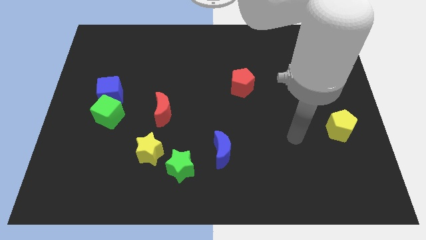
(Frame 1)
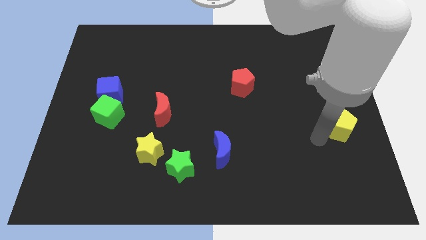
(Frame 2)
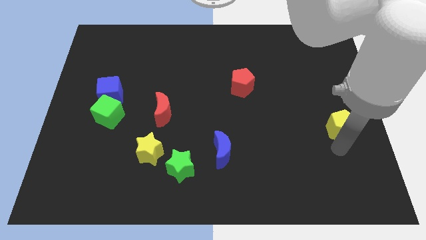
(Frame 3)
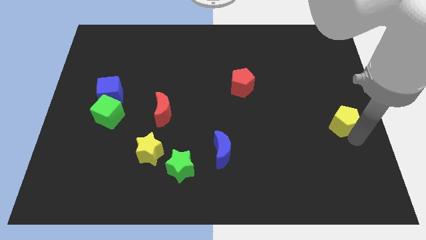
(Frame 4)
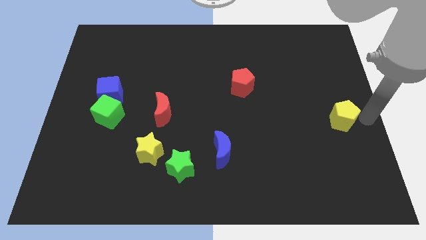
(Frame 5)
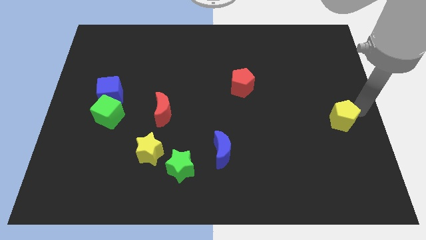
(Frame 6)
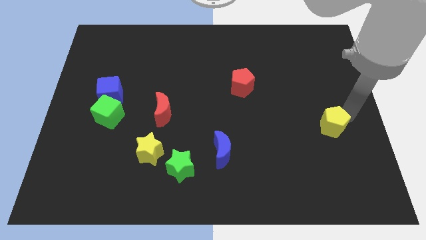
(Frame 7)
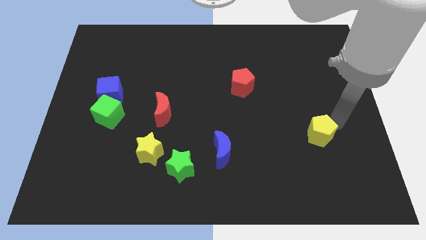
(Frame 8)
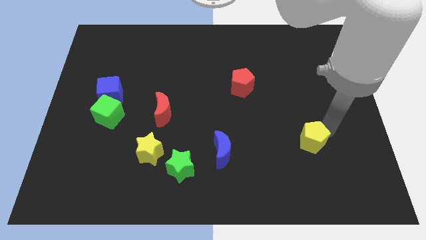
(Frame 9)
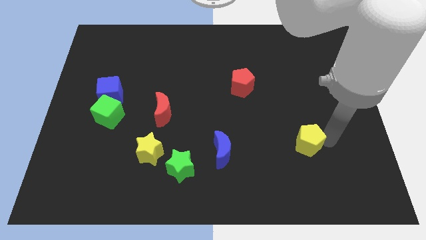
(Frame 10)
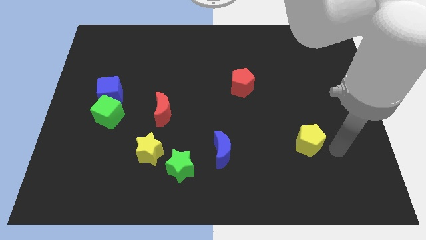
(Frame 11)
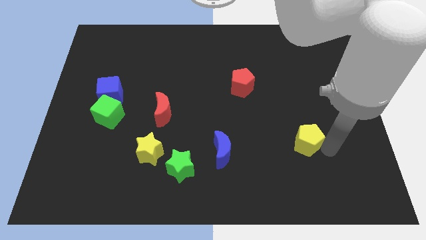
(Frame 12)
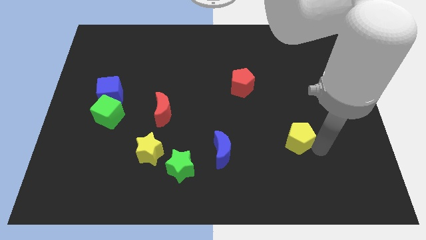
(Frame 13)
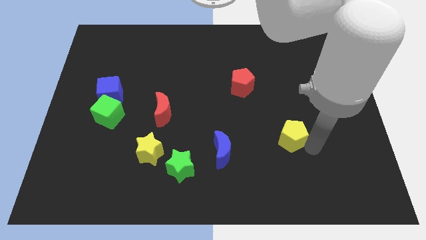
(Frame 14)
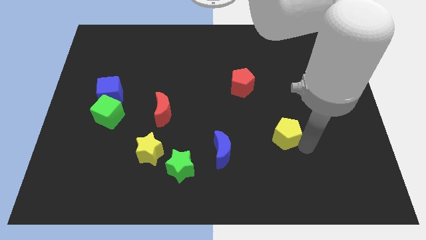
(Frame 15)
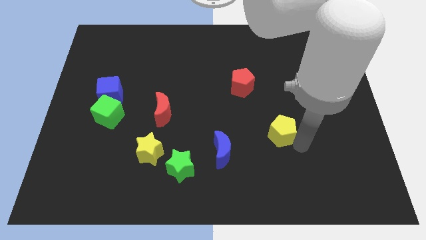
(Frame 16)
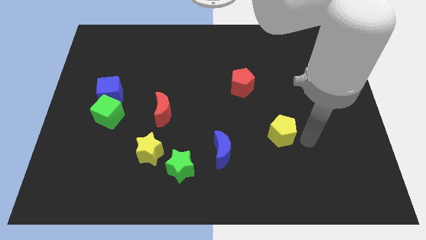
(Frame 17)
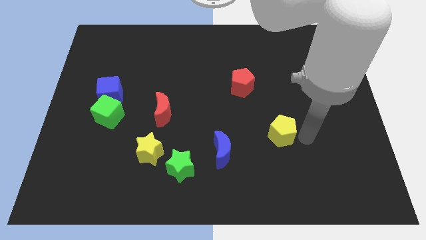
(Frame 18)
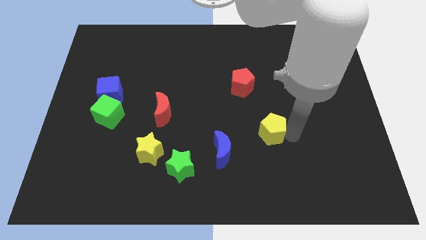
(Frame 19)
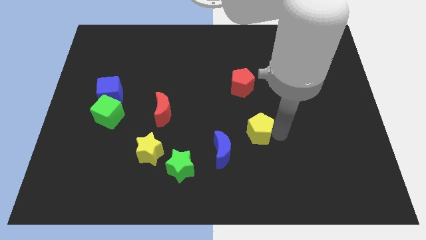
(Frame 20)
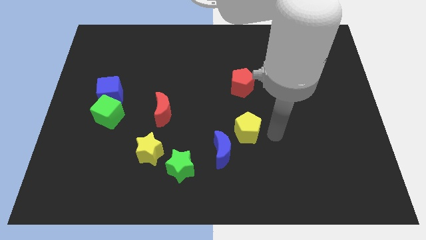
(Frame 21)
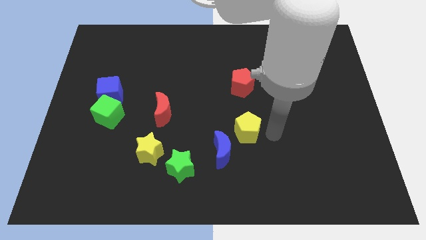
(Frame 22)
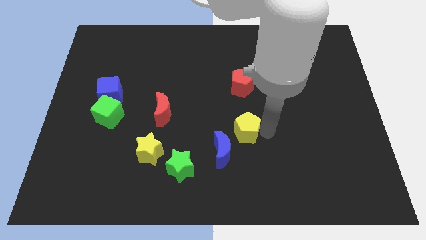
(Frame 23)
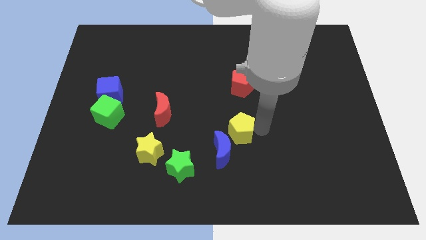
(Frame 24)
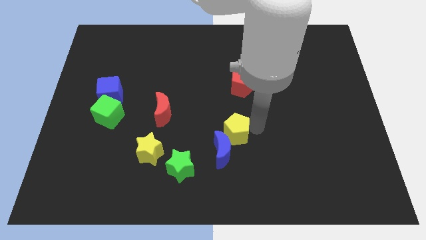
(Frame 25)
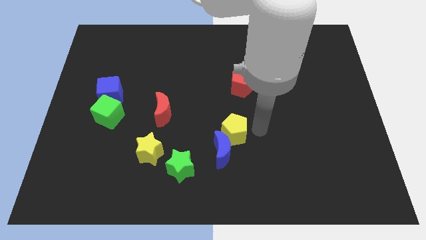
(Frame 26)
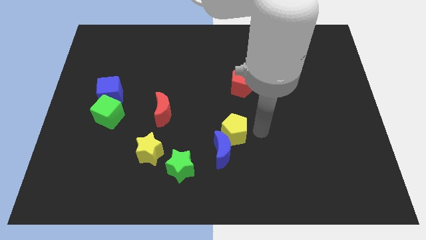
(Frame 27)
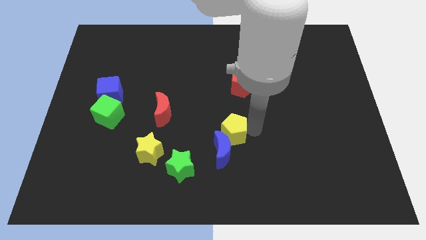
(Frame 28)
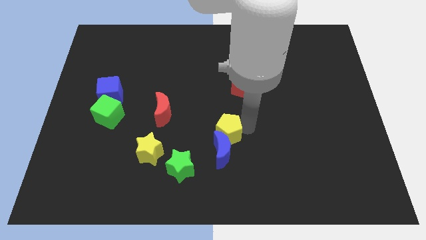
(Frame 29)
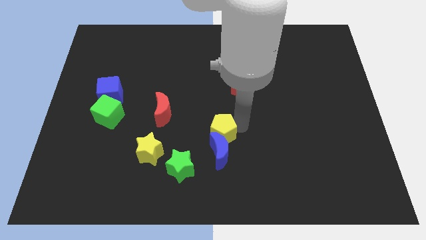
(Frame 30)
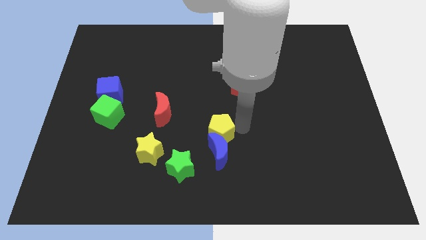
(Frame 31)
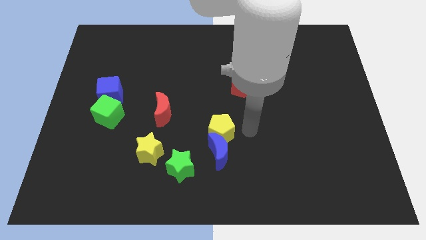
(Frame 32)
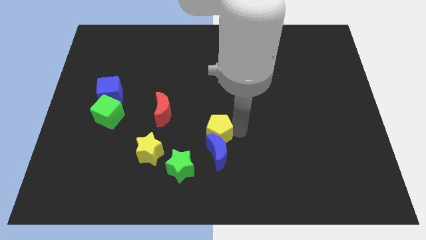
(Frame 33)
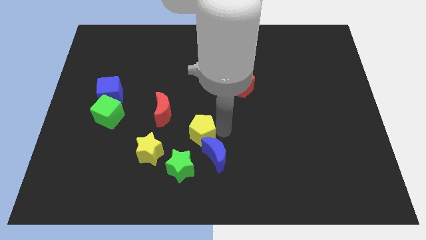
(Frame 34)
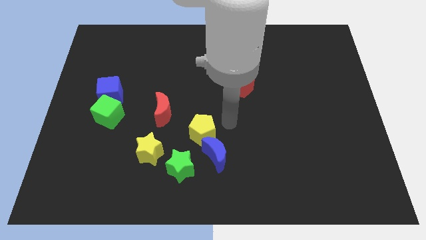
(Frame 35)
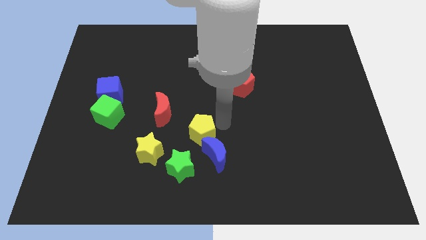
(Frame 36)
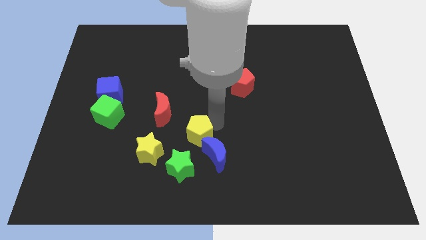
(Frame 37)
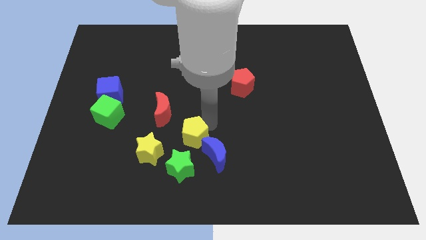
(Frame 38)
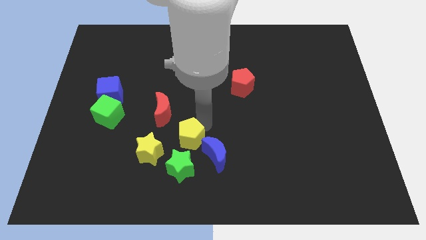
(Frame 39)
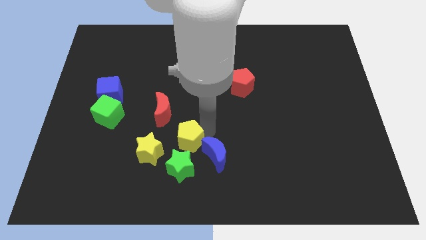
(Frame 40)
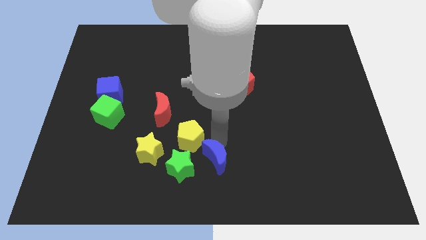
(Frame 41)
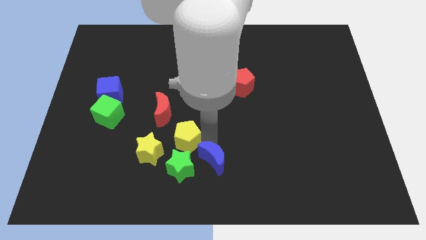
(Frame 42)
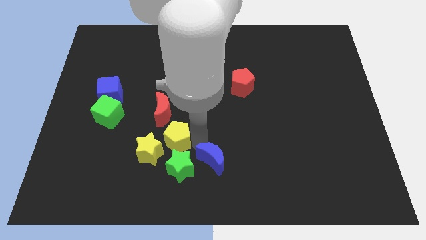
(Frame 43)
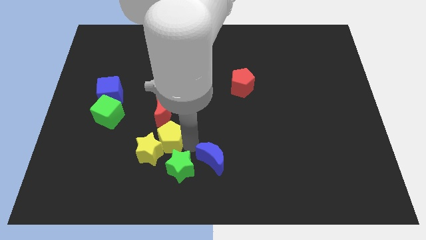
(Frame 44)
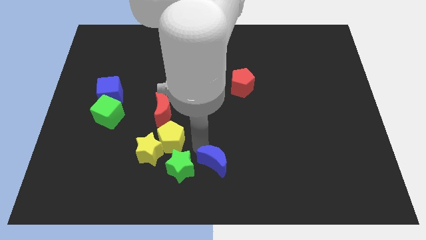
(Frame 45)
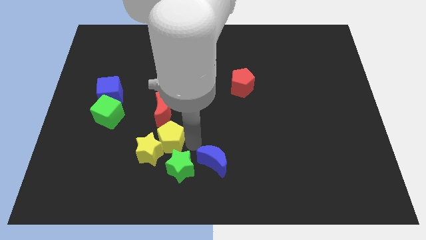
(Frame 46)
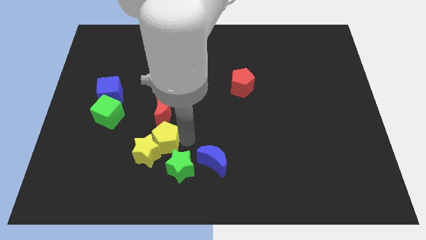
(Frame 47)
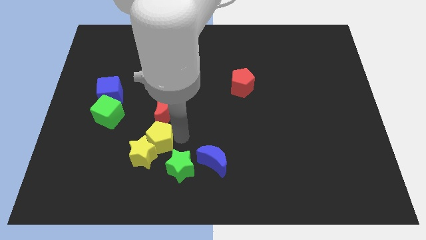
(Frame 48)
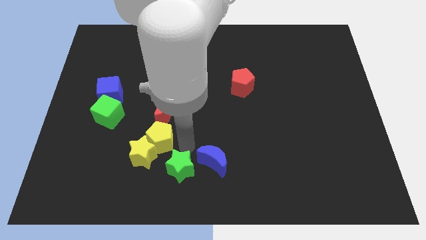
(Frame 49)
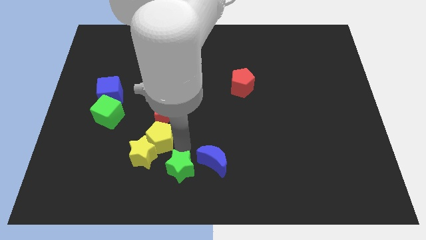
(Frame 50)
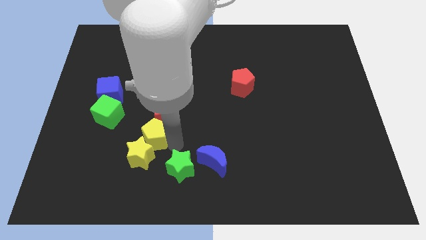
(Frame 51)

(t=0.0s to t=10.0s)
push the yellow pentagon diagonally down and to the left of the red moon

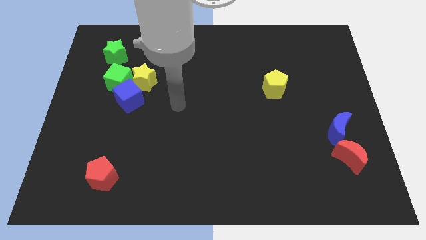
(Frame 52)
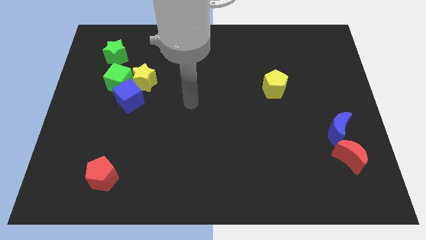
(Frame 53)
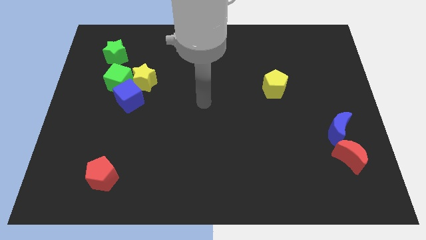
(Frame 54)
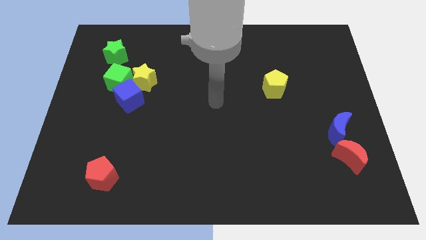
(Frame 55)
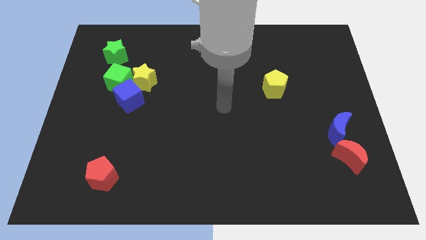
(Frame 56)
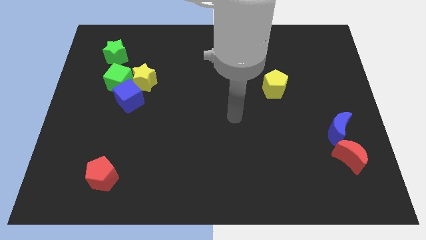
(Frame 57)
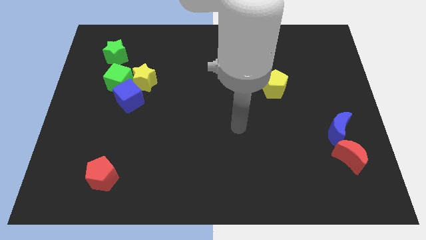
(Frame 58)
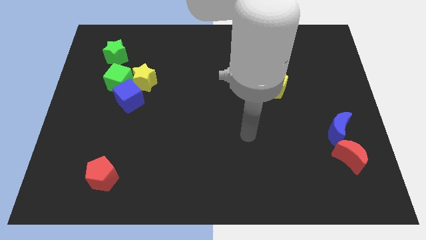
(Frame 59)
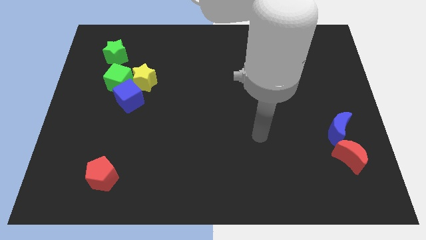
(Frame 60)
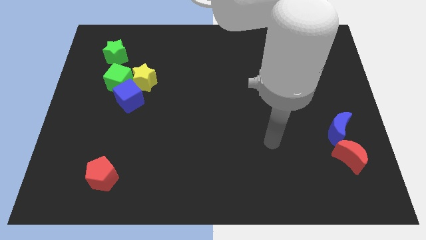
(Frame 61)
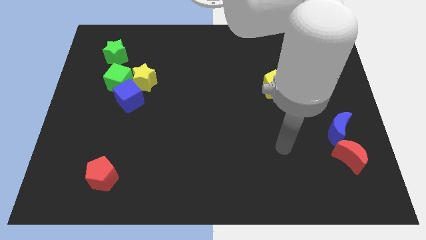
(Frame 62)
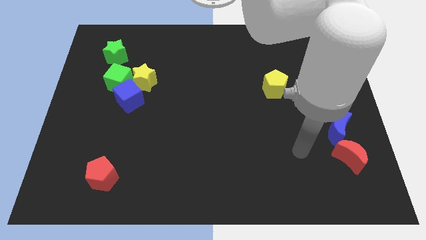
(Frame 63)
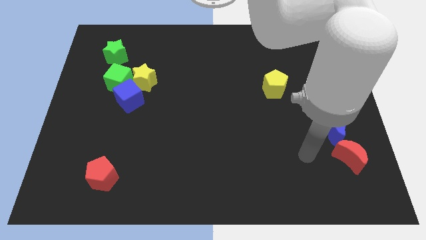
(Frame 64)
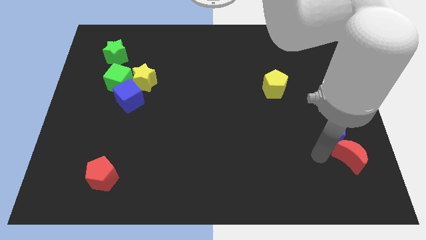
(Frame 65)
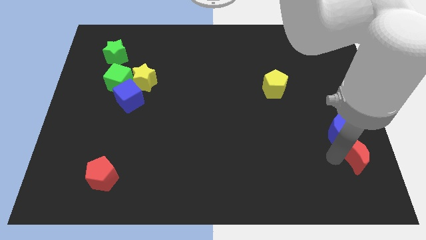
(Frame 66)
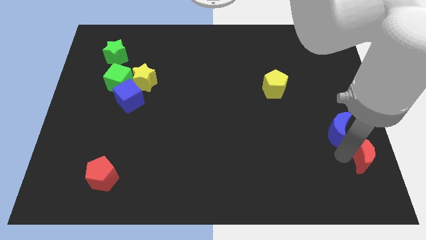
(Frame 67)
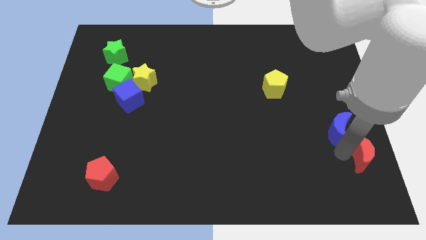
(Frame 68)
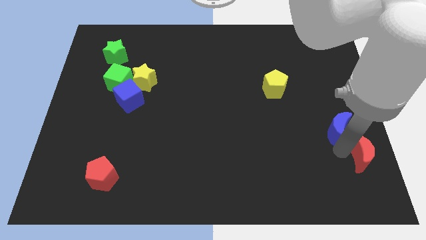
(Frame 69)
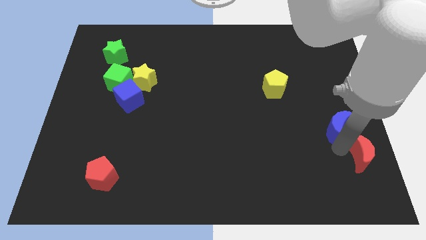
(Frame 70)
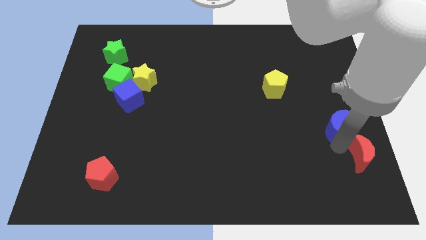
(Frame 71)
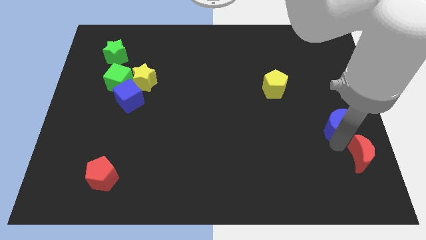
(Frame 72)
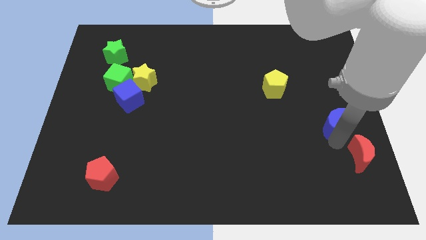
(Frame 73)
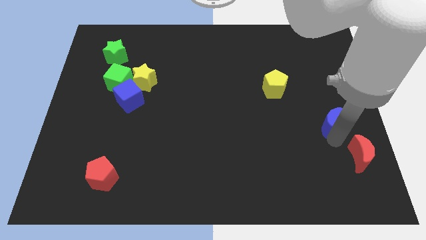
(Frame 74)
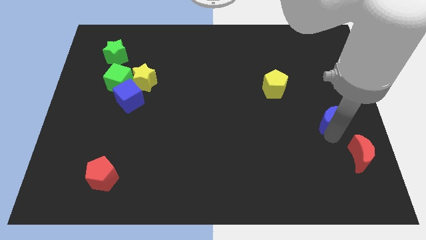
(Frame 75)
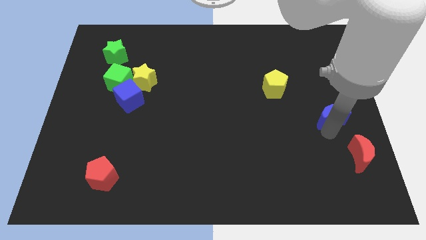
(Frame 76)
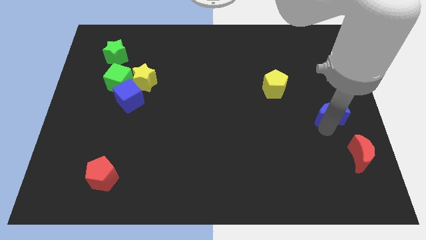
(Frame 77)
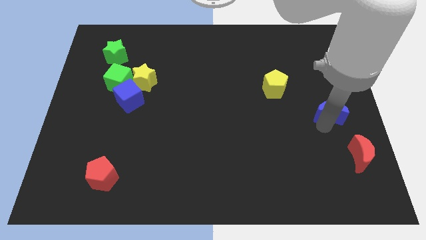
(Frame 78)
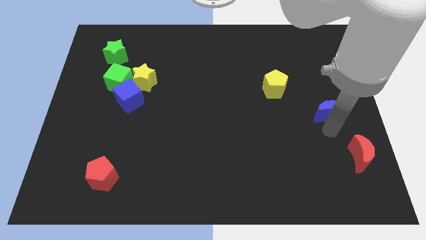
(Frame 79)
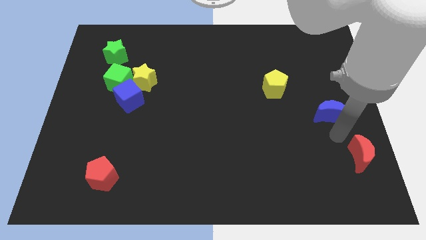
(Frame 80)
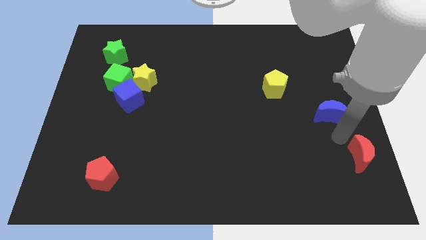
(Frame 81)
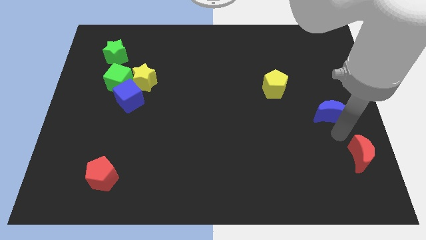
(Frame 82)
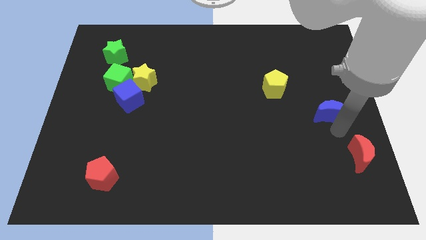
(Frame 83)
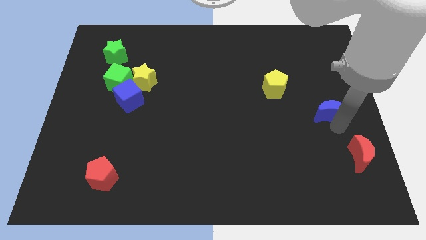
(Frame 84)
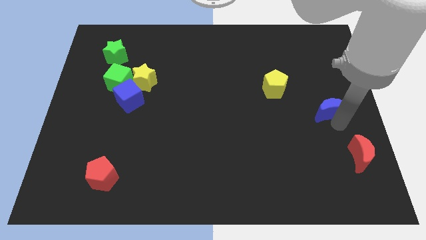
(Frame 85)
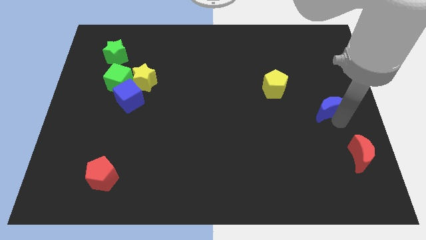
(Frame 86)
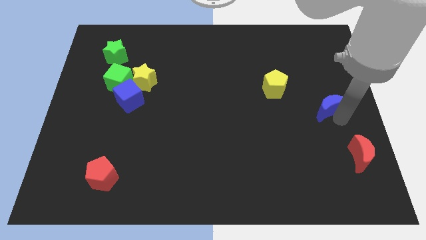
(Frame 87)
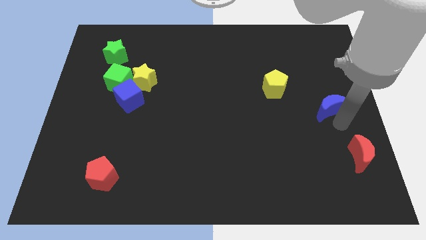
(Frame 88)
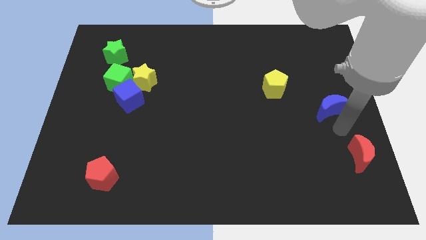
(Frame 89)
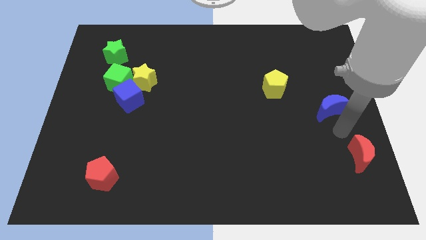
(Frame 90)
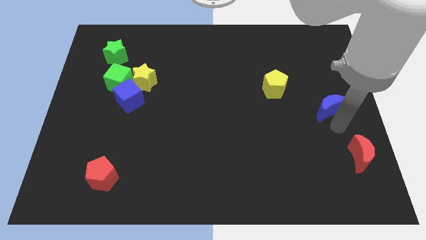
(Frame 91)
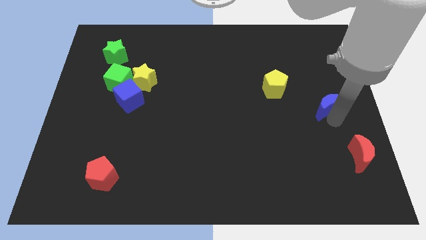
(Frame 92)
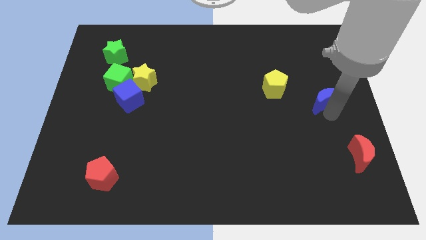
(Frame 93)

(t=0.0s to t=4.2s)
put the blue moon right of the yellow pentagon
